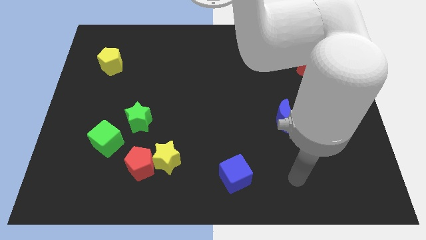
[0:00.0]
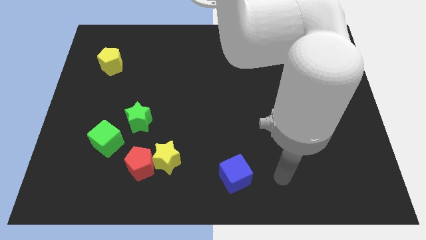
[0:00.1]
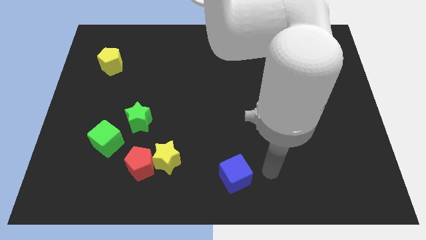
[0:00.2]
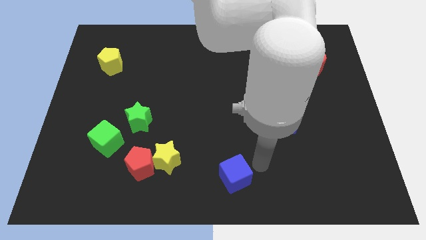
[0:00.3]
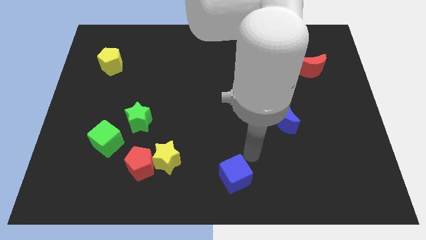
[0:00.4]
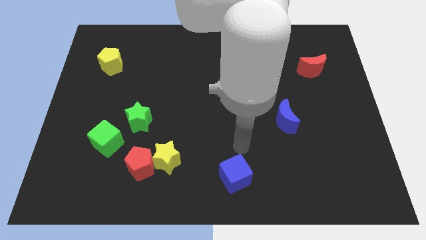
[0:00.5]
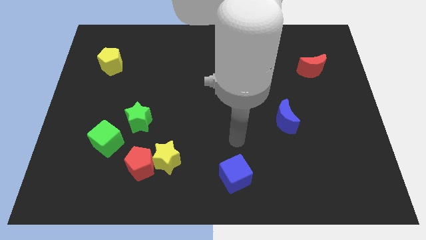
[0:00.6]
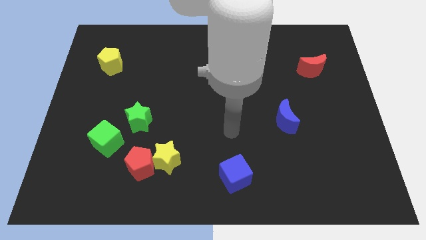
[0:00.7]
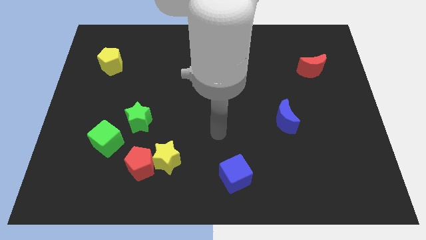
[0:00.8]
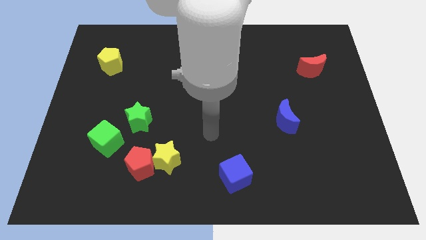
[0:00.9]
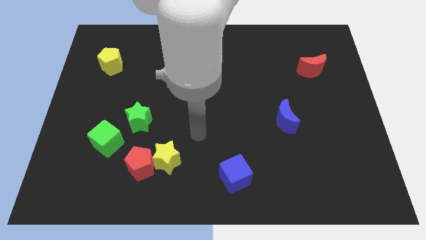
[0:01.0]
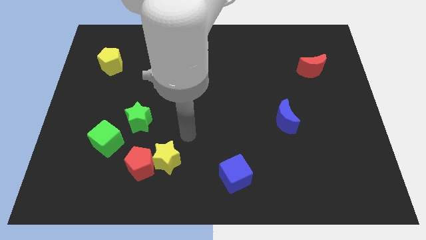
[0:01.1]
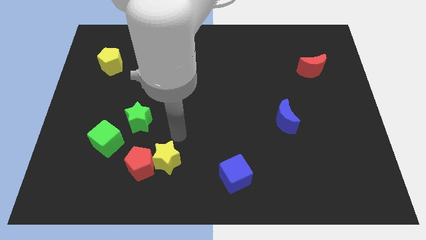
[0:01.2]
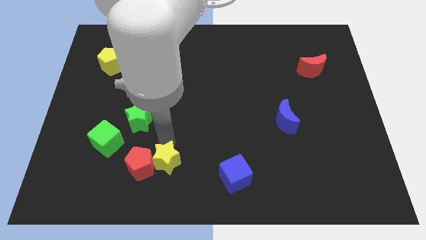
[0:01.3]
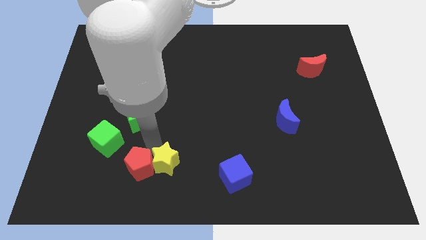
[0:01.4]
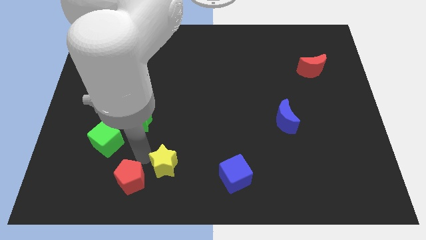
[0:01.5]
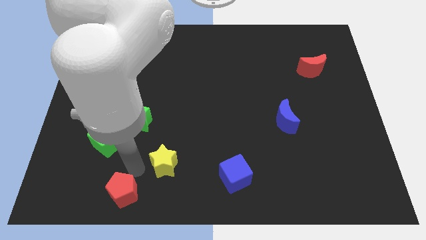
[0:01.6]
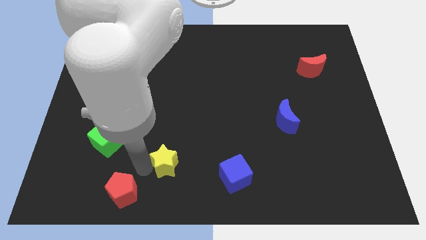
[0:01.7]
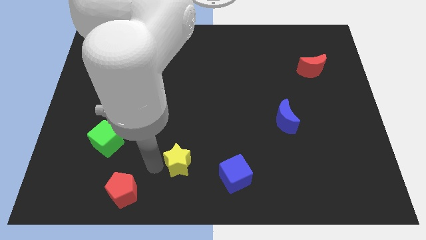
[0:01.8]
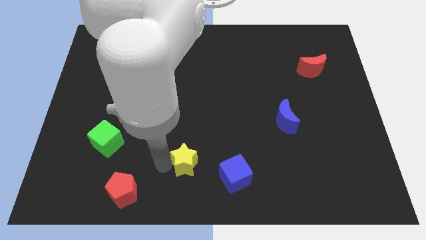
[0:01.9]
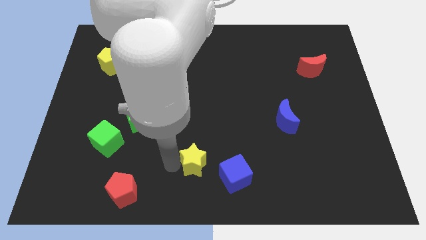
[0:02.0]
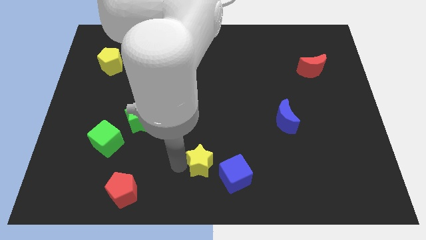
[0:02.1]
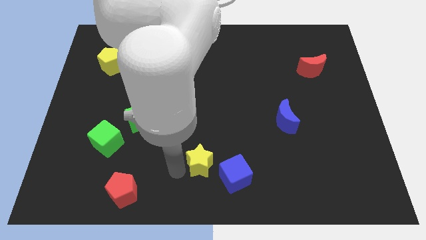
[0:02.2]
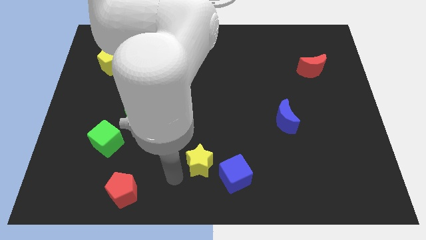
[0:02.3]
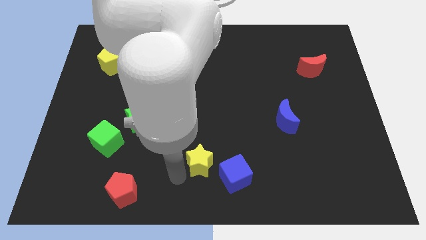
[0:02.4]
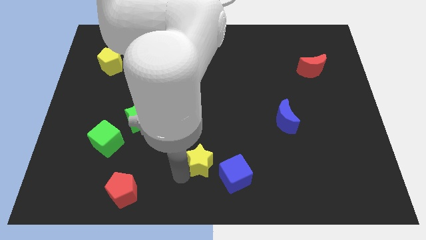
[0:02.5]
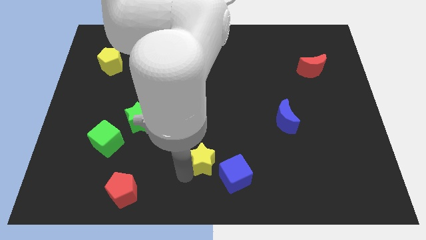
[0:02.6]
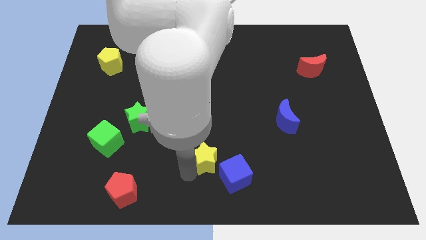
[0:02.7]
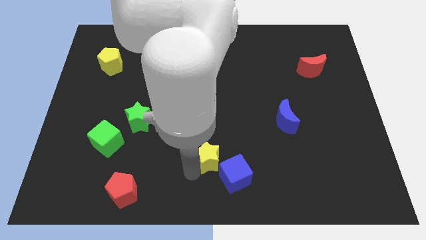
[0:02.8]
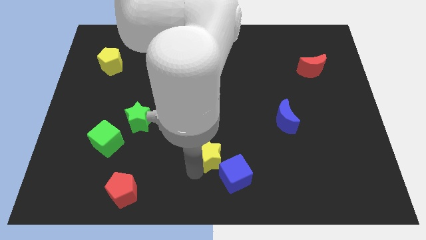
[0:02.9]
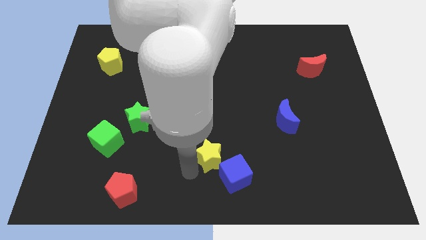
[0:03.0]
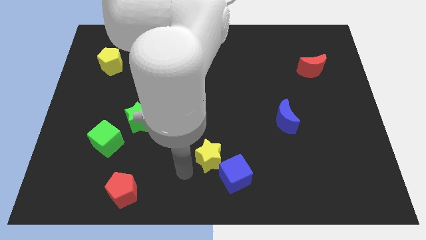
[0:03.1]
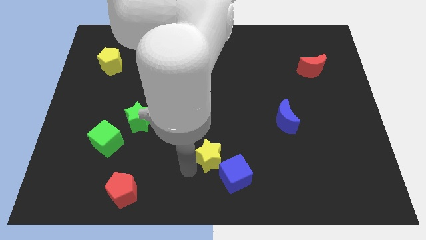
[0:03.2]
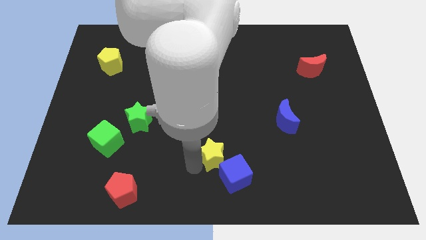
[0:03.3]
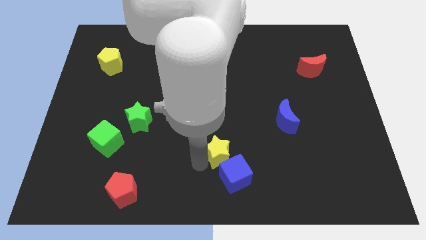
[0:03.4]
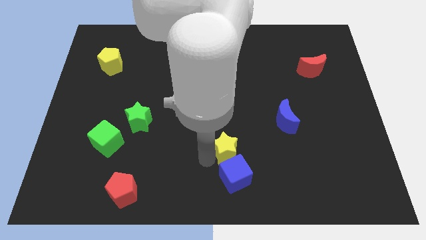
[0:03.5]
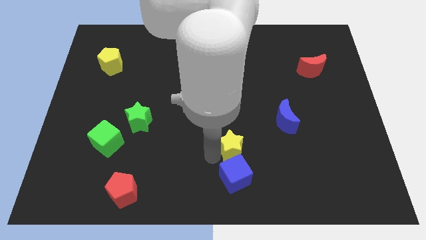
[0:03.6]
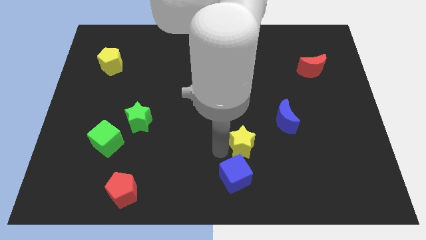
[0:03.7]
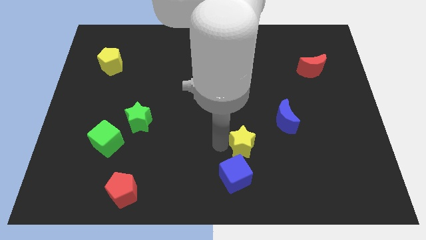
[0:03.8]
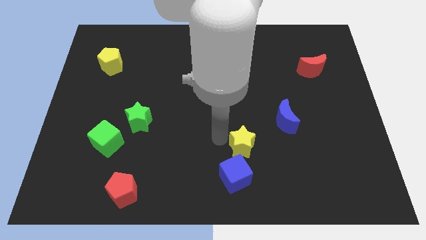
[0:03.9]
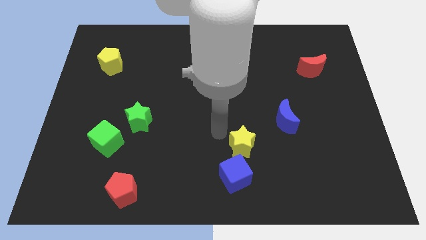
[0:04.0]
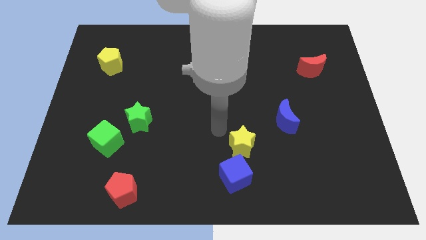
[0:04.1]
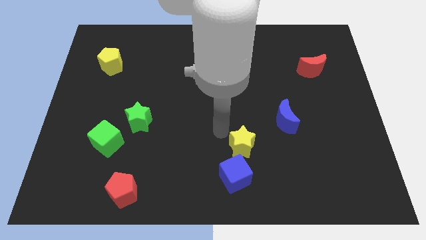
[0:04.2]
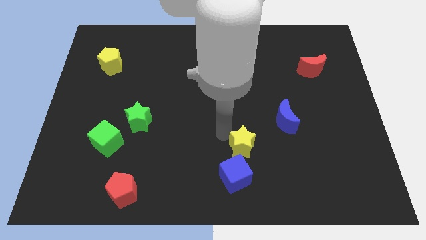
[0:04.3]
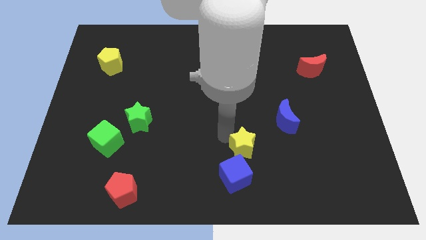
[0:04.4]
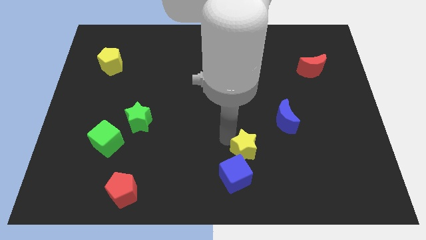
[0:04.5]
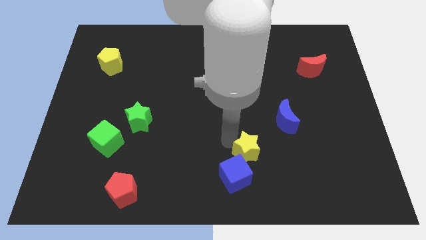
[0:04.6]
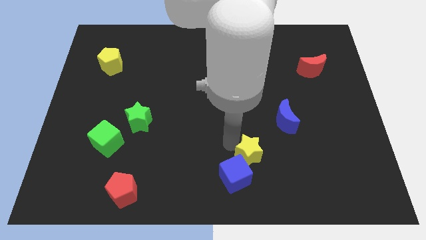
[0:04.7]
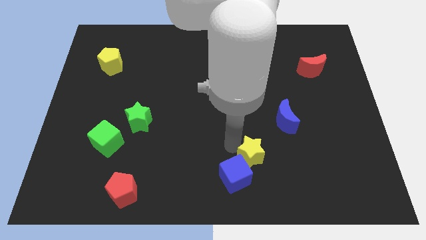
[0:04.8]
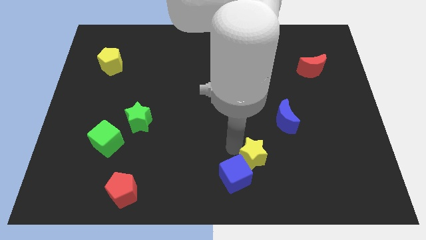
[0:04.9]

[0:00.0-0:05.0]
push the yellow star to the right side of the blue cube

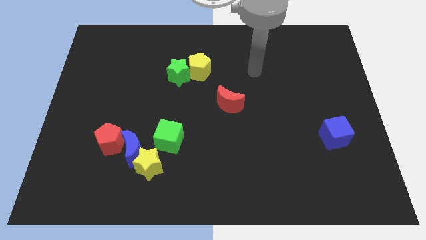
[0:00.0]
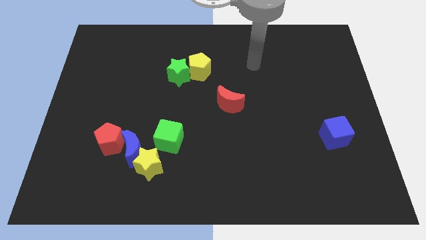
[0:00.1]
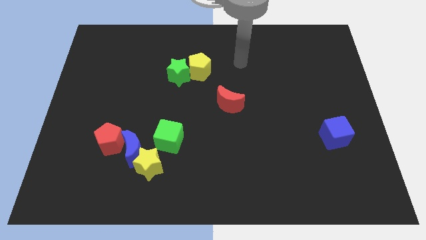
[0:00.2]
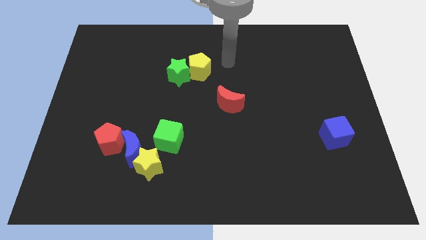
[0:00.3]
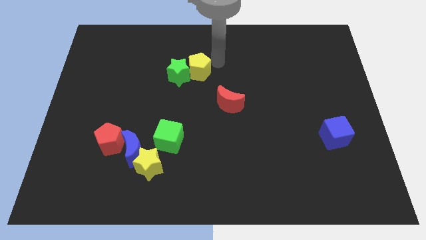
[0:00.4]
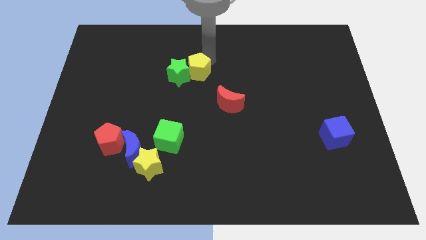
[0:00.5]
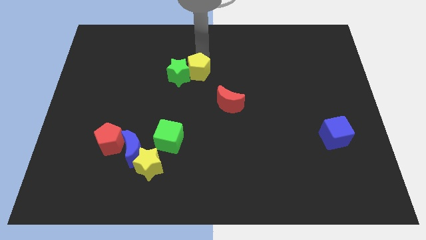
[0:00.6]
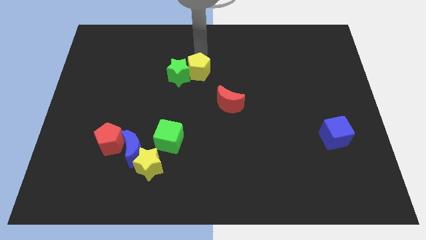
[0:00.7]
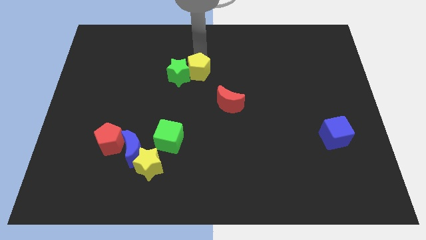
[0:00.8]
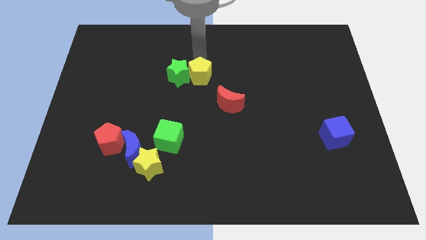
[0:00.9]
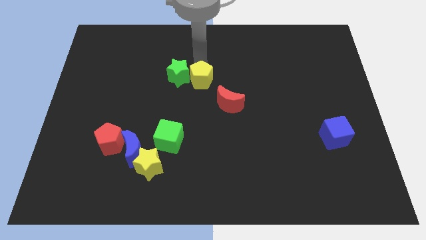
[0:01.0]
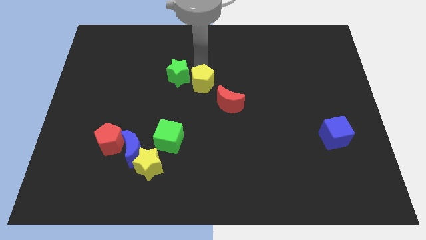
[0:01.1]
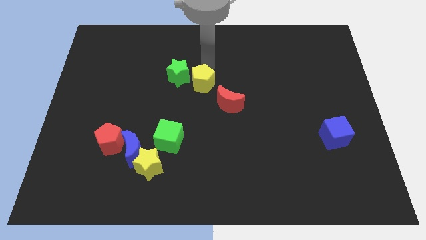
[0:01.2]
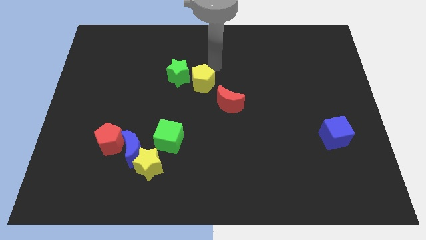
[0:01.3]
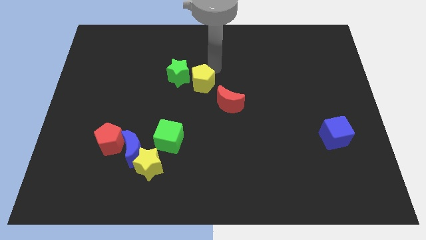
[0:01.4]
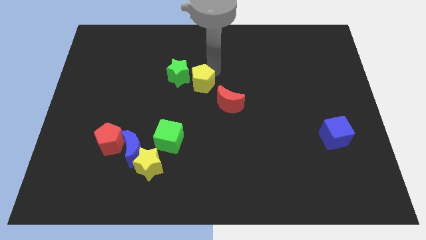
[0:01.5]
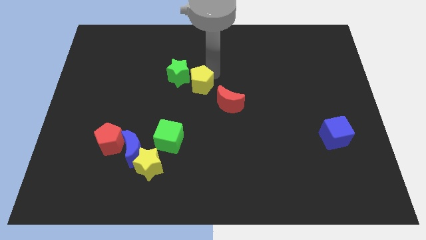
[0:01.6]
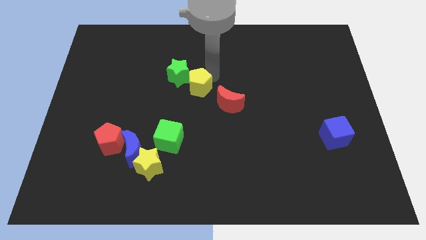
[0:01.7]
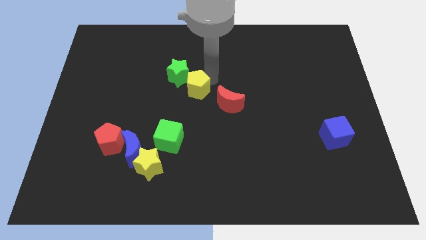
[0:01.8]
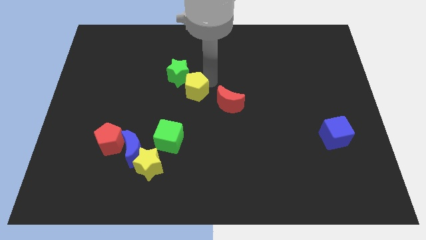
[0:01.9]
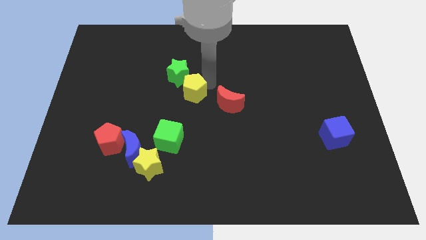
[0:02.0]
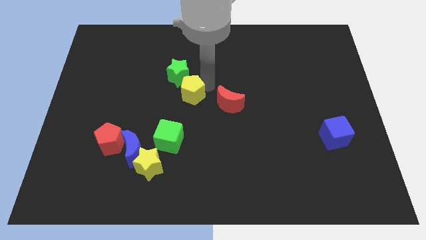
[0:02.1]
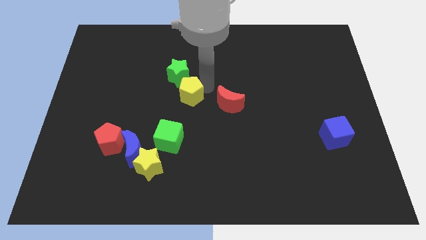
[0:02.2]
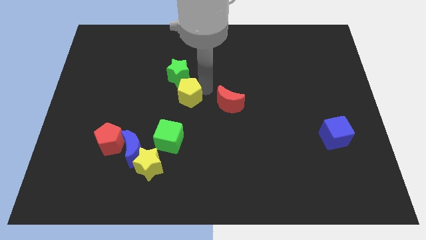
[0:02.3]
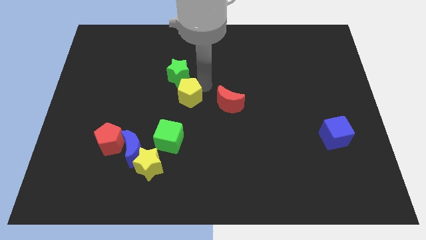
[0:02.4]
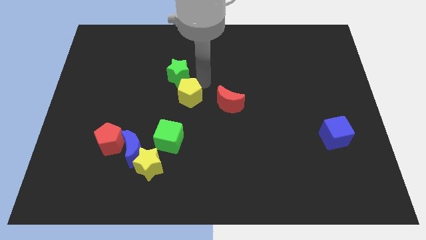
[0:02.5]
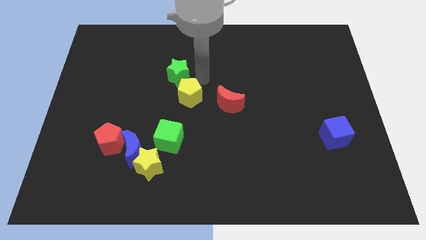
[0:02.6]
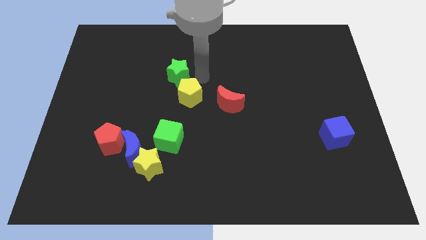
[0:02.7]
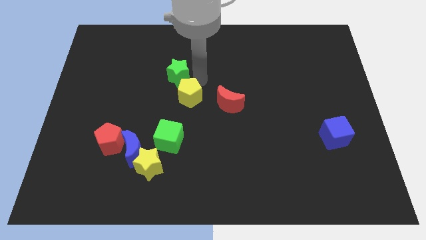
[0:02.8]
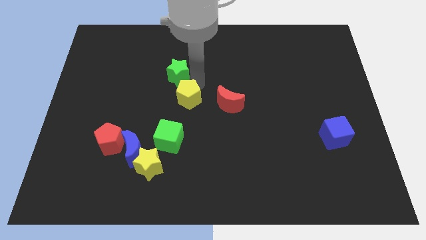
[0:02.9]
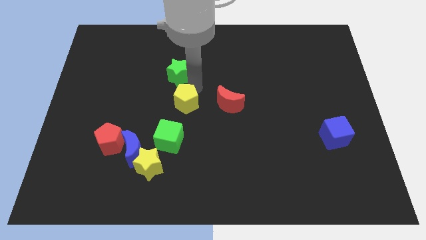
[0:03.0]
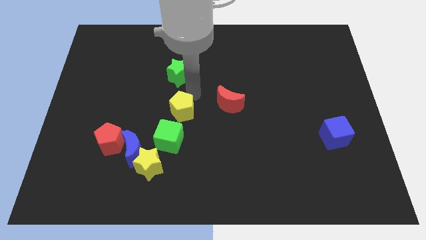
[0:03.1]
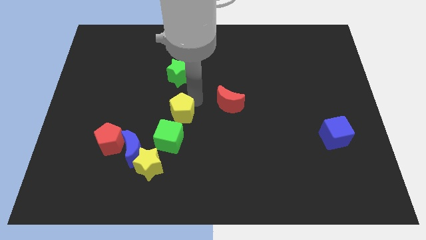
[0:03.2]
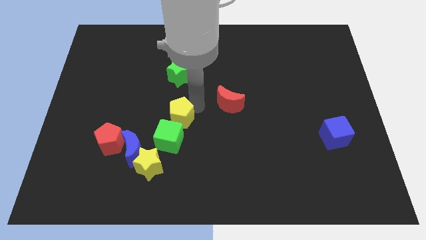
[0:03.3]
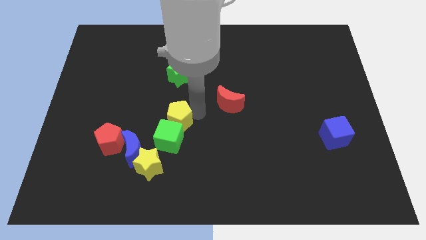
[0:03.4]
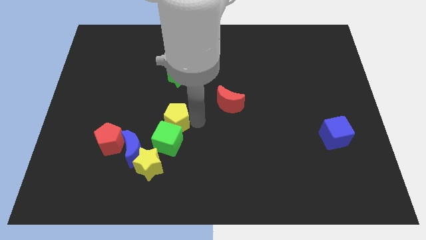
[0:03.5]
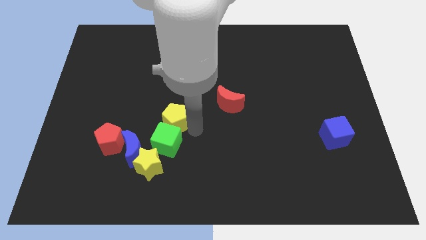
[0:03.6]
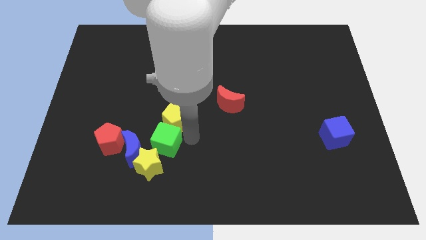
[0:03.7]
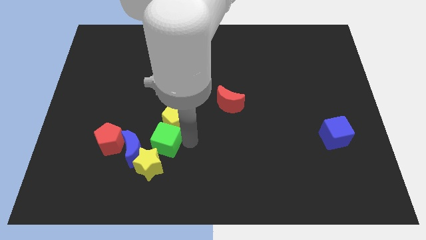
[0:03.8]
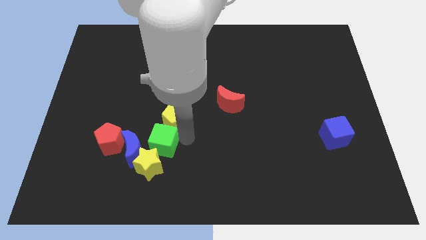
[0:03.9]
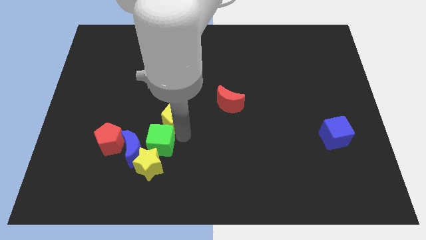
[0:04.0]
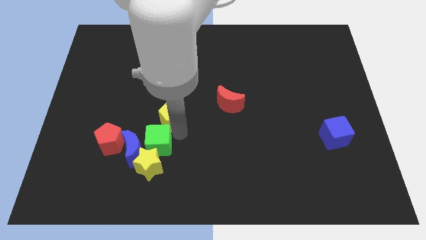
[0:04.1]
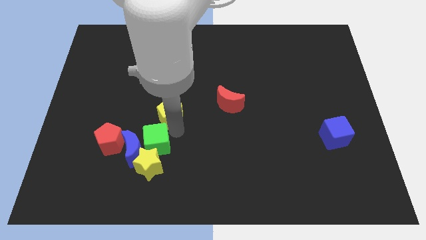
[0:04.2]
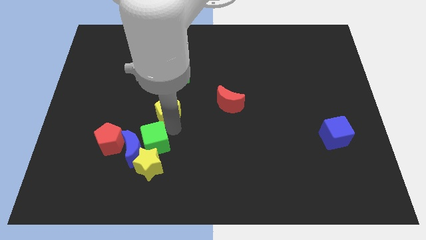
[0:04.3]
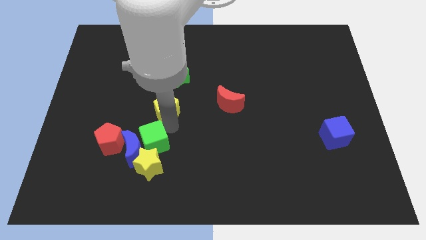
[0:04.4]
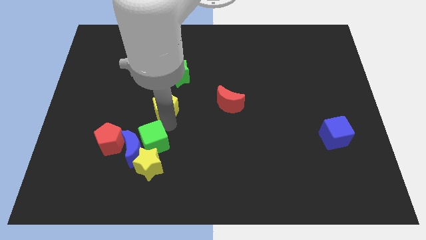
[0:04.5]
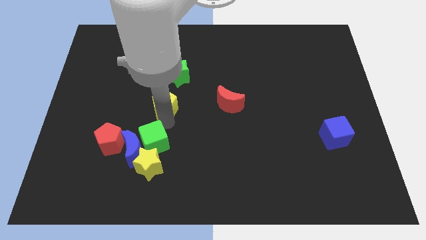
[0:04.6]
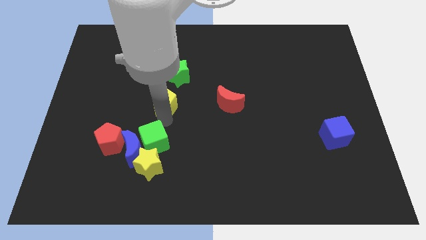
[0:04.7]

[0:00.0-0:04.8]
put the yellow pentagon diagonally down and to the left of the green star
